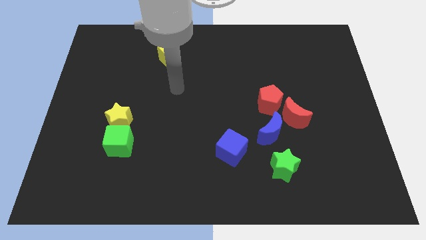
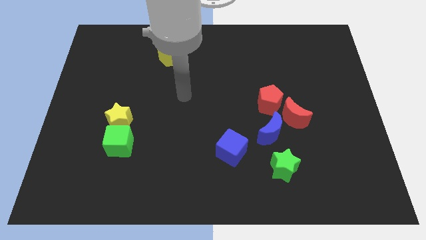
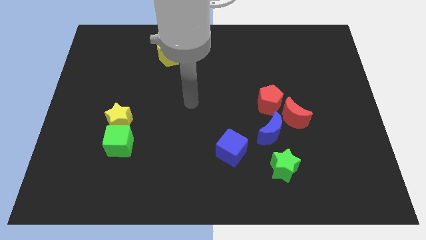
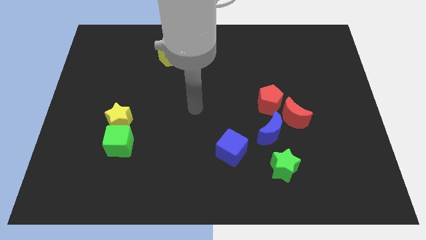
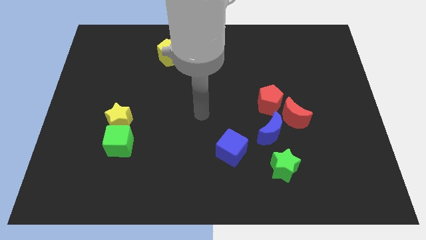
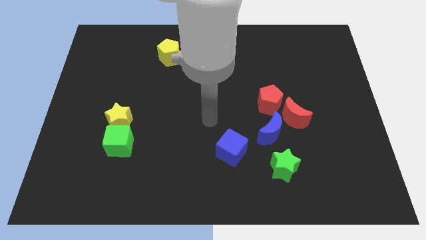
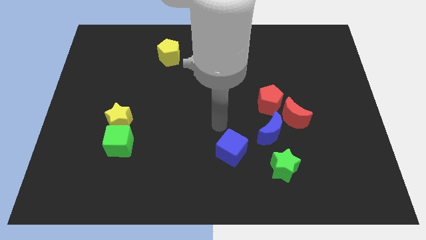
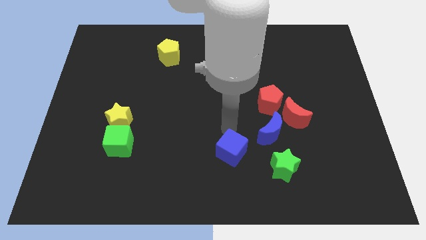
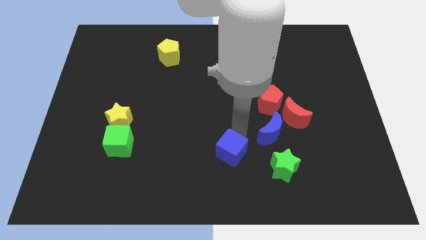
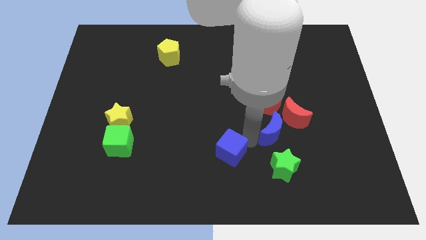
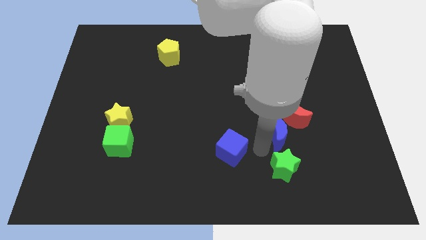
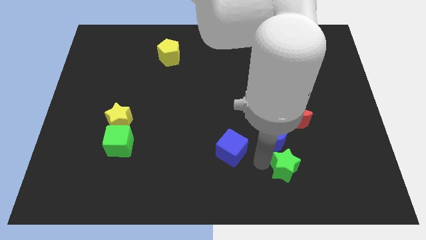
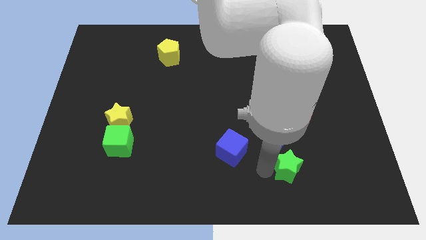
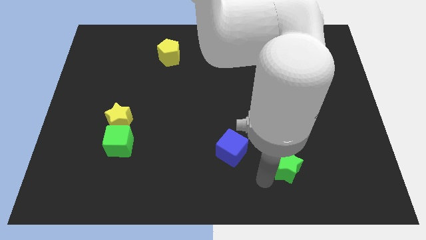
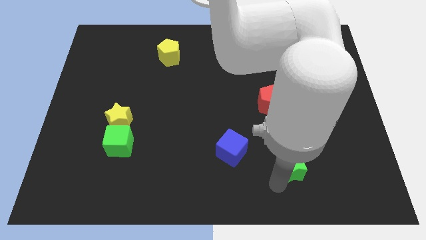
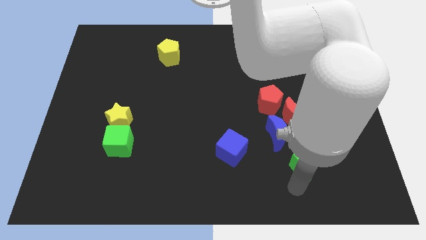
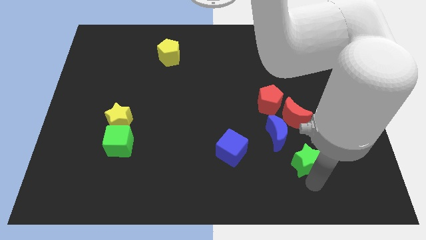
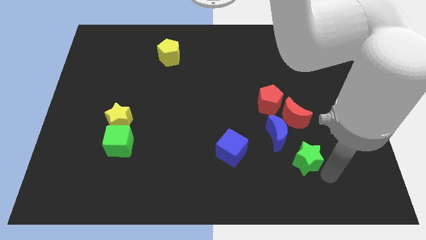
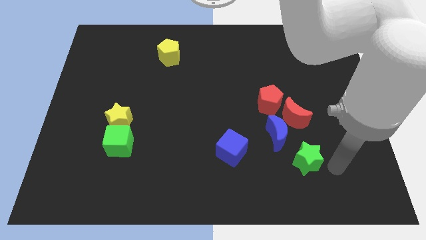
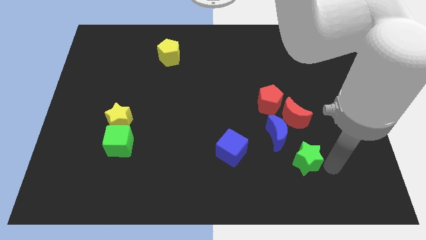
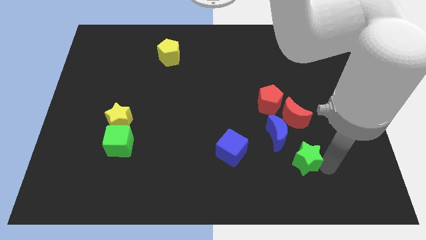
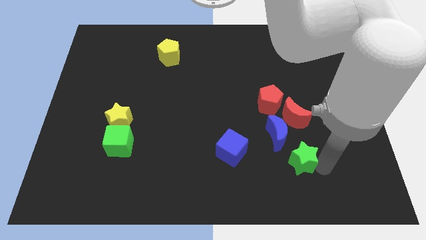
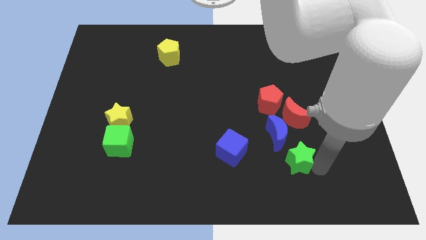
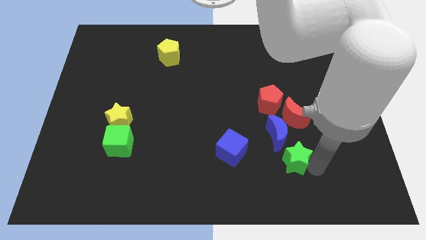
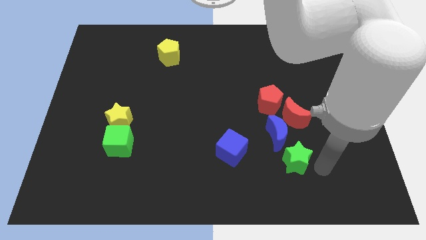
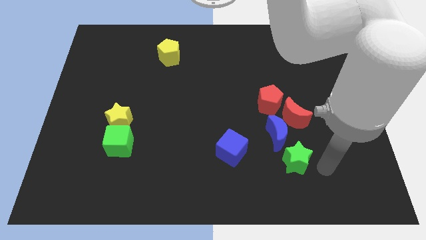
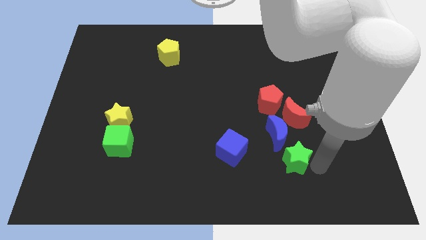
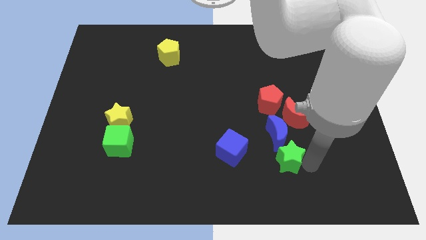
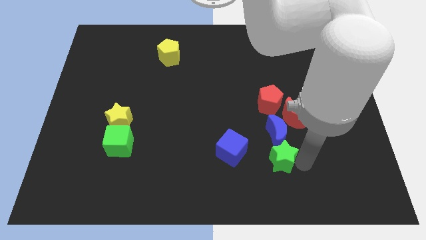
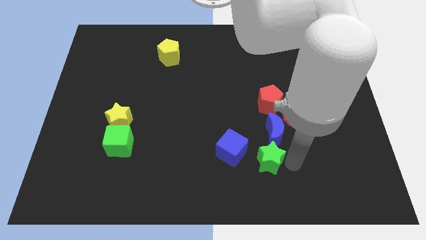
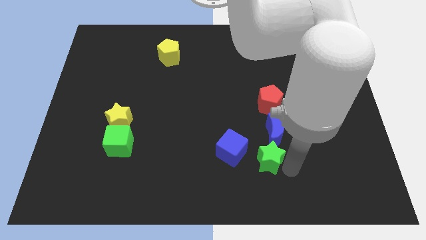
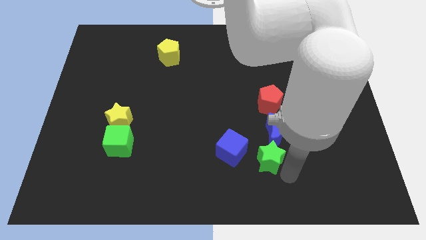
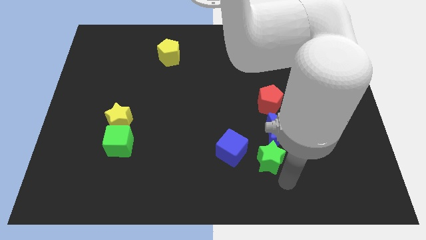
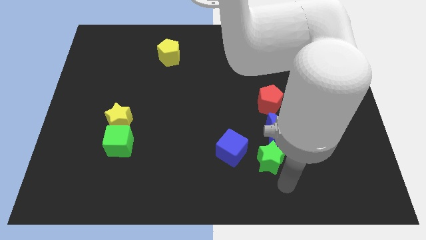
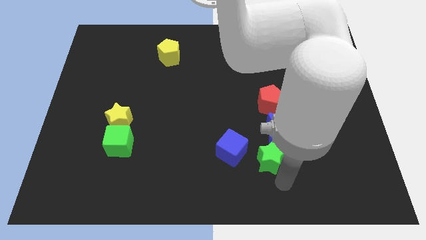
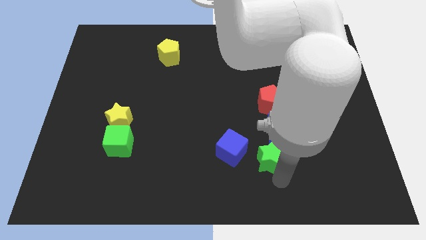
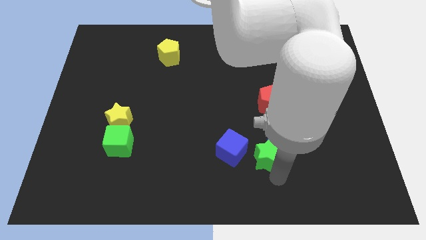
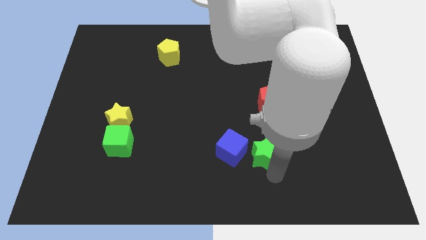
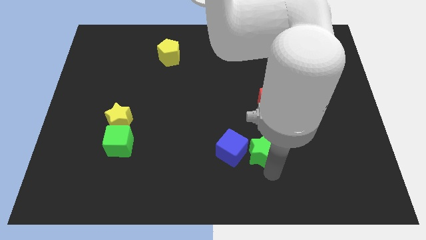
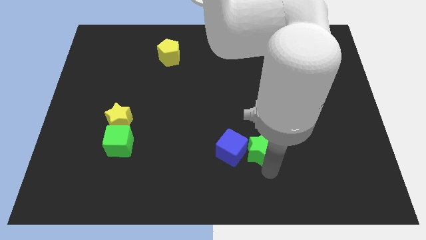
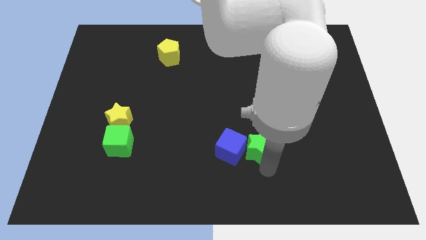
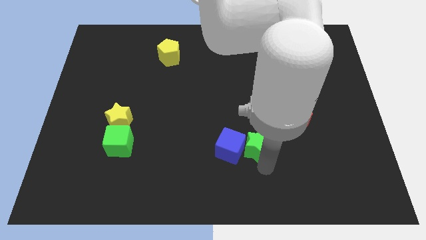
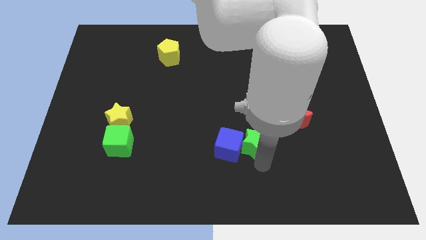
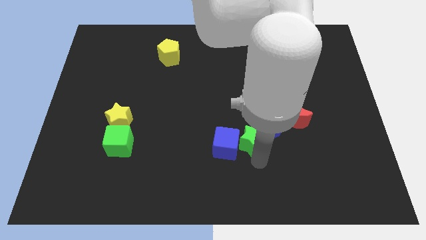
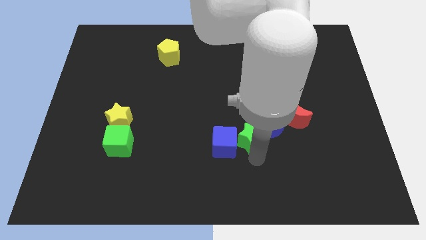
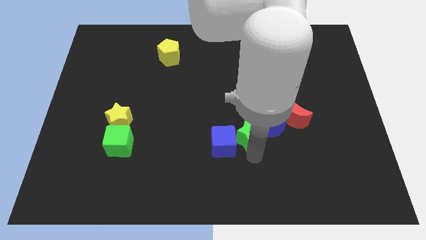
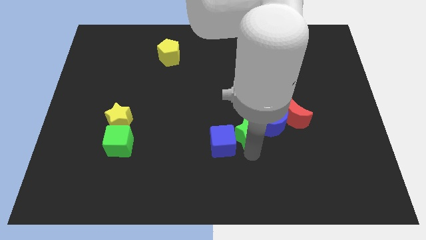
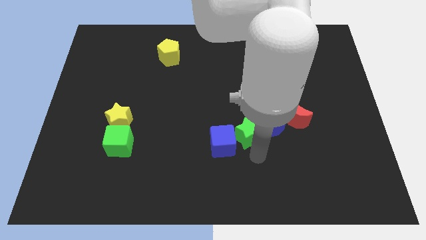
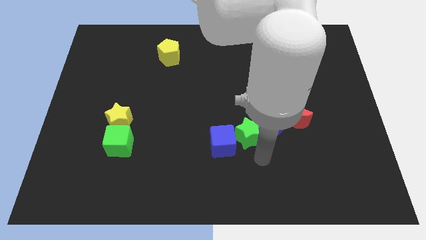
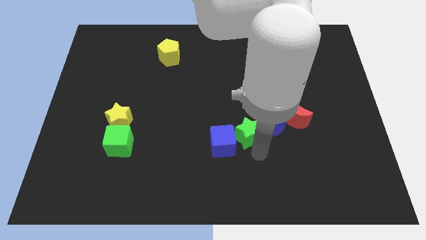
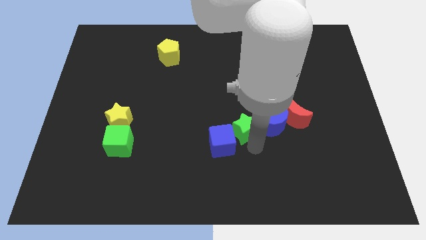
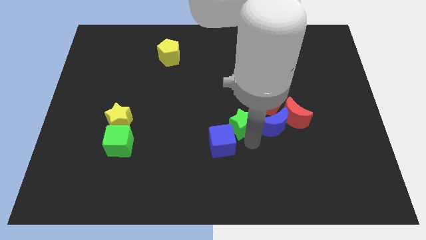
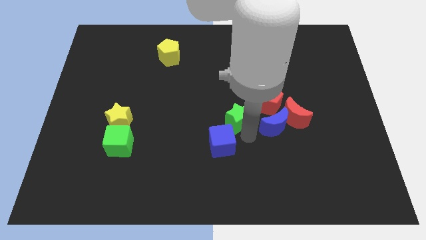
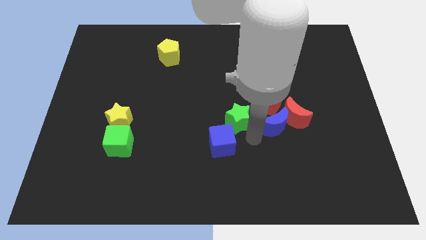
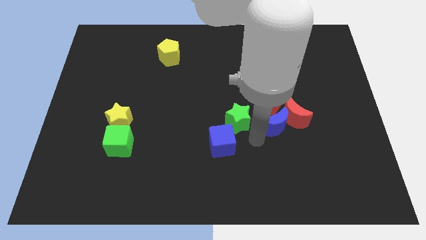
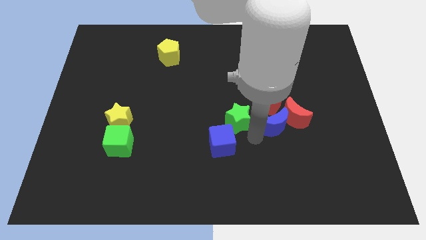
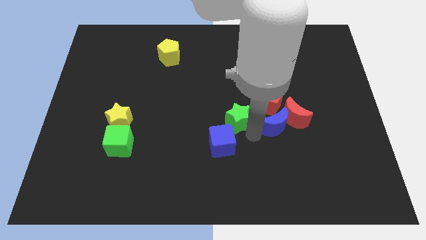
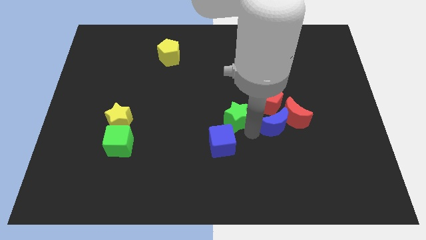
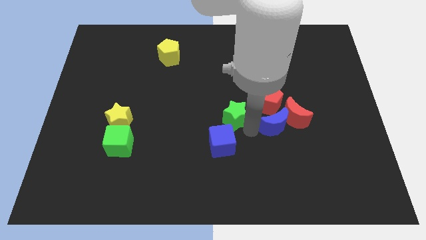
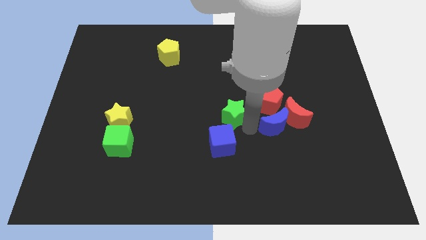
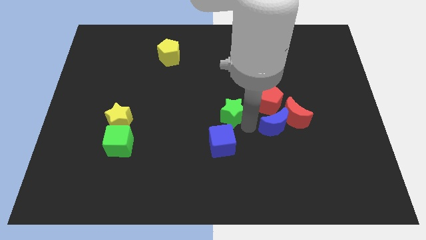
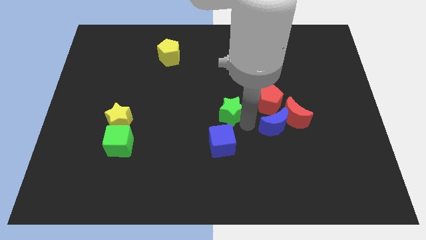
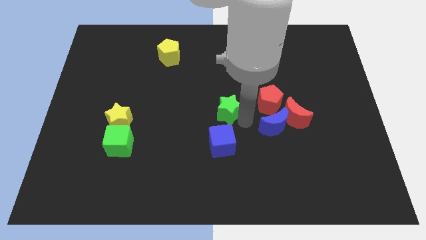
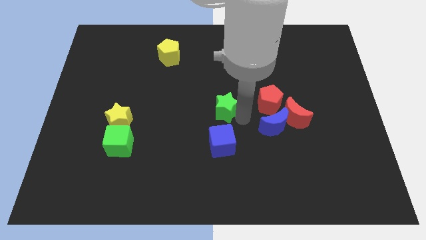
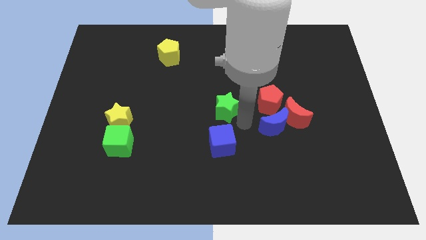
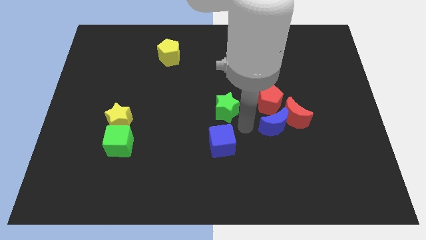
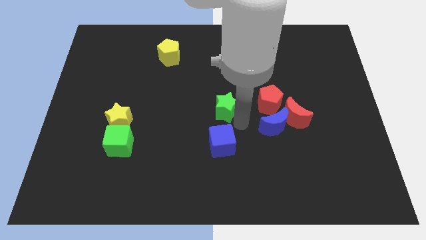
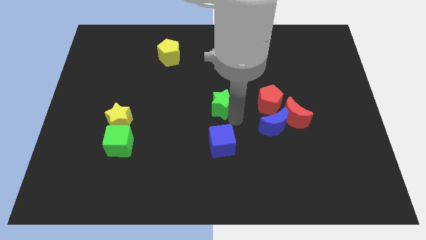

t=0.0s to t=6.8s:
move the green star diagonally up and left

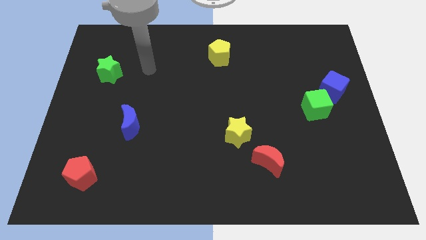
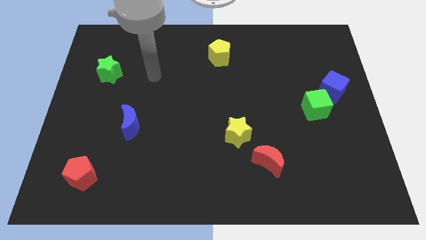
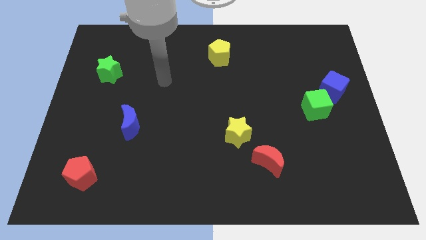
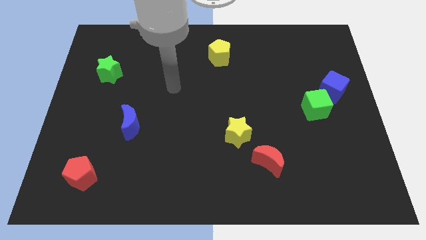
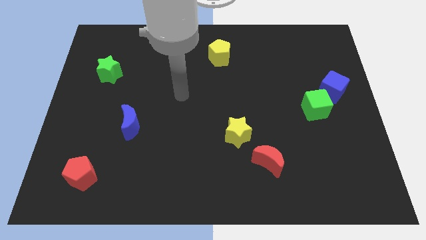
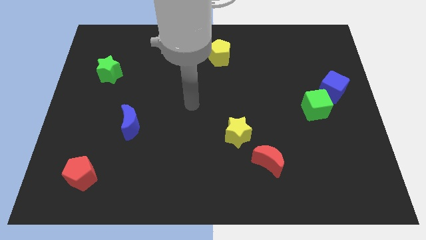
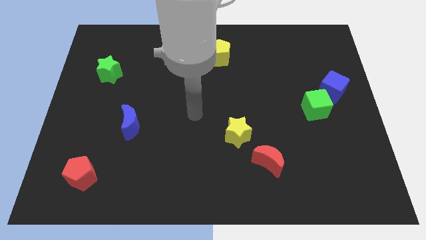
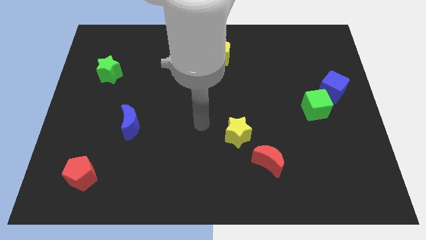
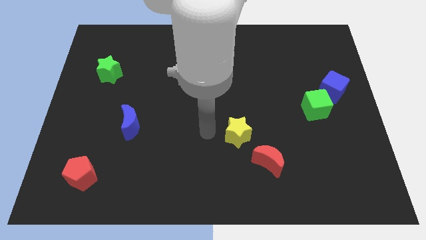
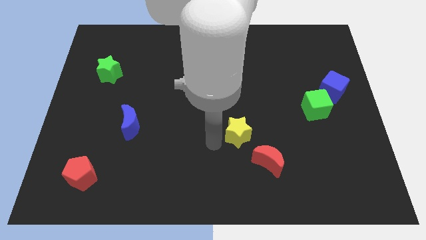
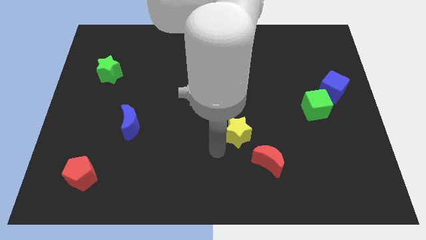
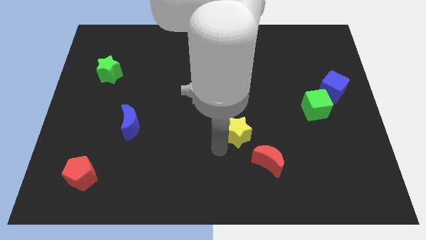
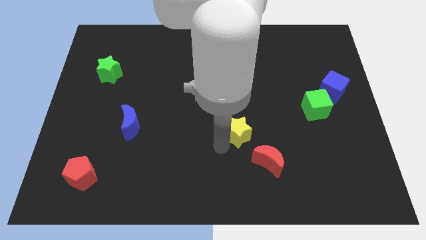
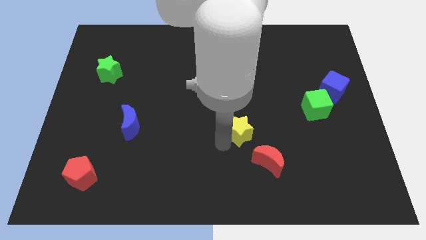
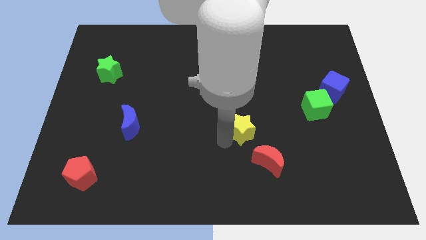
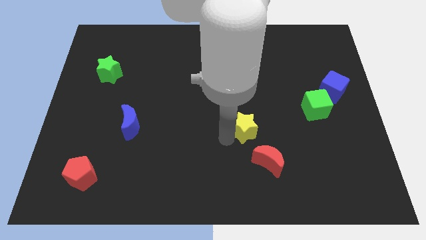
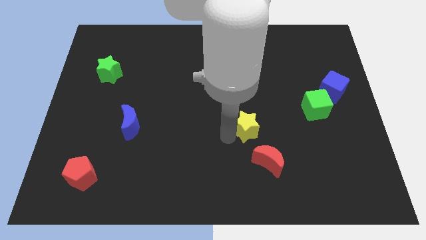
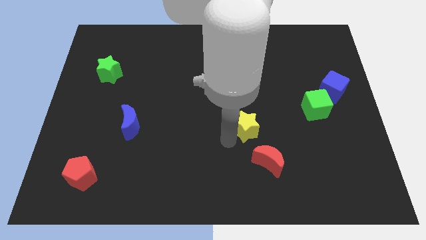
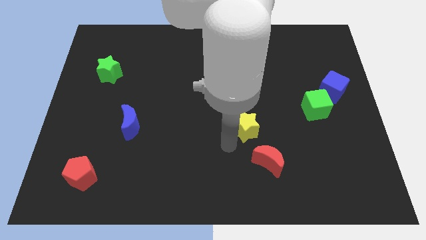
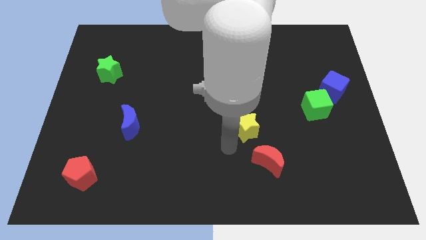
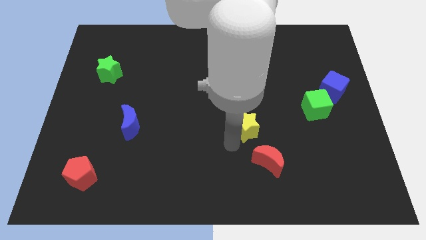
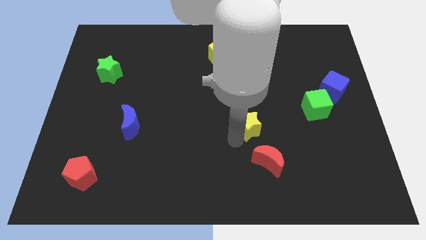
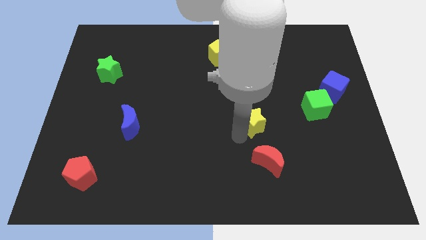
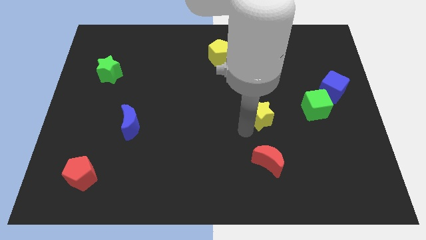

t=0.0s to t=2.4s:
slide the yellow star up and then right somewhat
